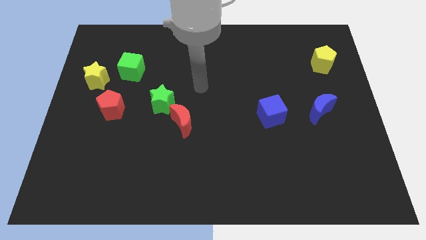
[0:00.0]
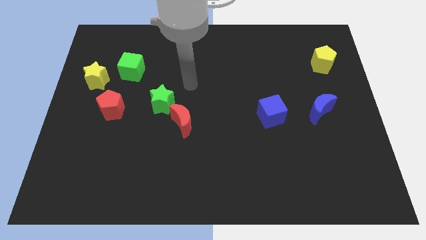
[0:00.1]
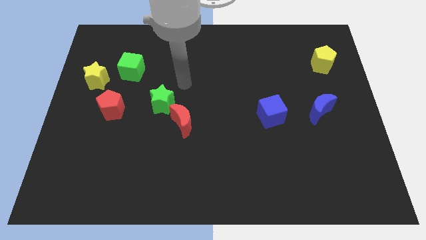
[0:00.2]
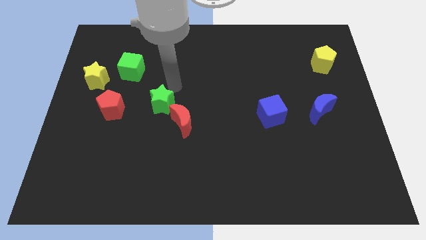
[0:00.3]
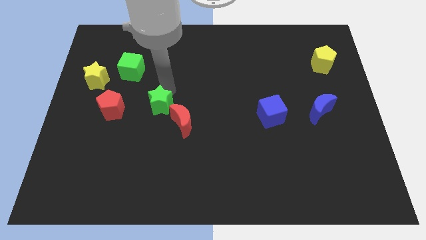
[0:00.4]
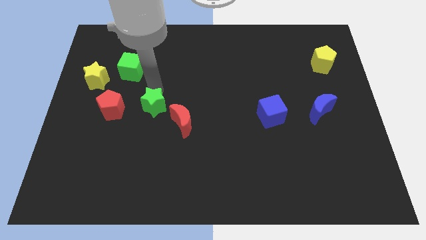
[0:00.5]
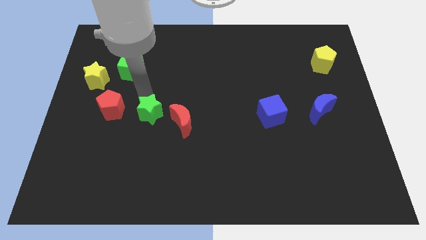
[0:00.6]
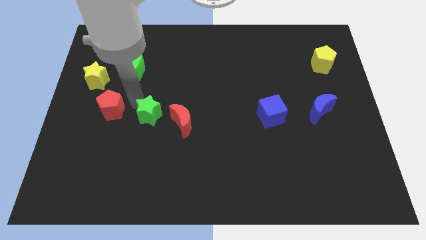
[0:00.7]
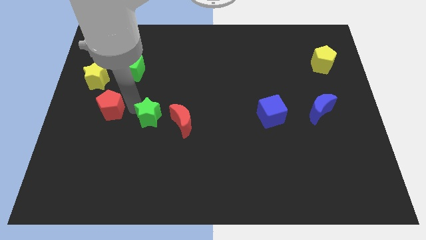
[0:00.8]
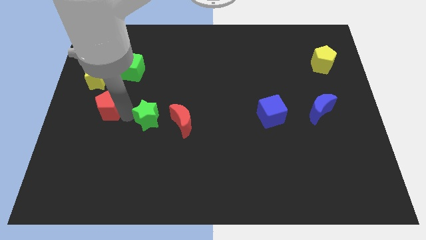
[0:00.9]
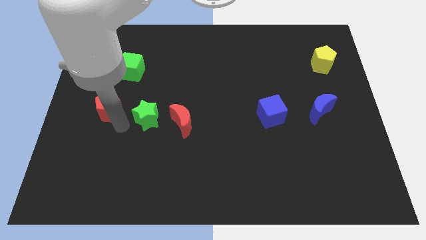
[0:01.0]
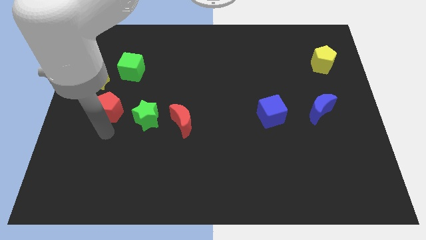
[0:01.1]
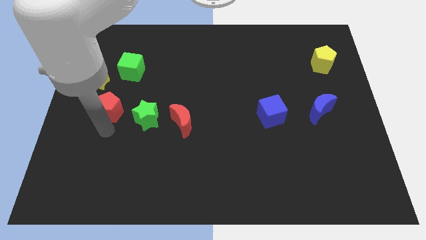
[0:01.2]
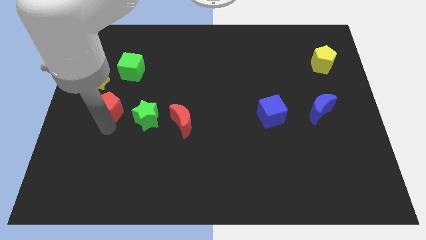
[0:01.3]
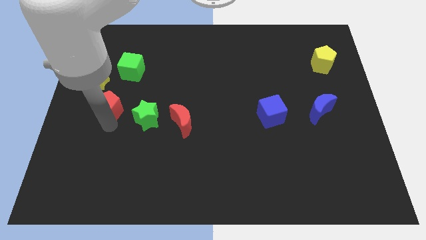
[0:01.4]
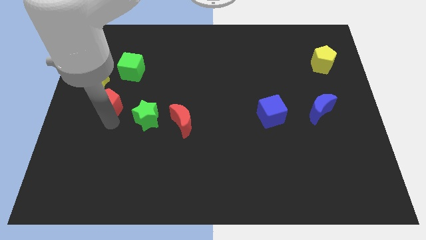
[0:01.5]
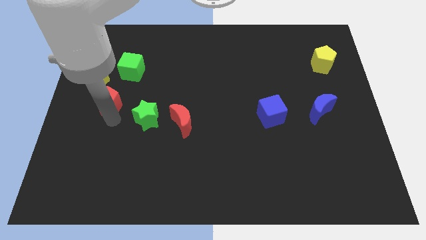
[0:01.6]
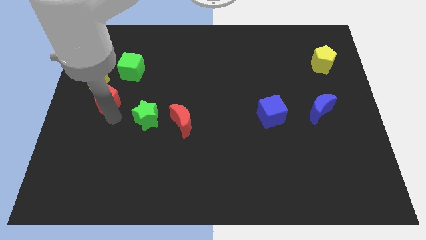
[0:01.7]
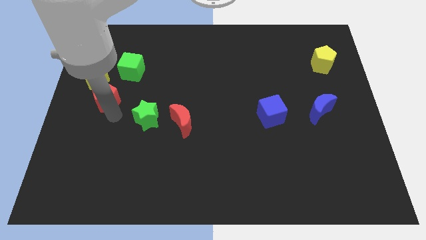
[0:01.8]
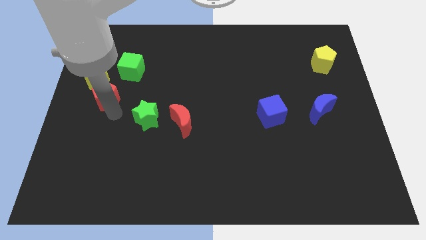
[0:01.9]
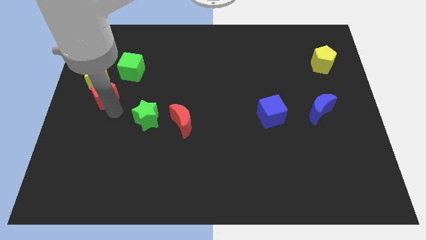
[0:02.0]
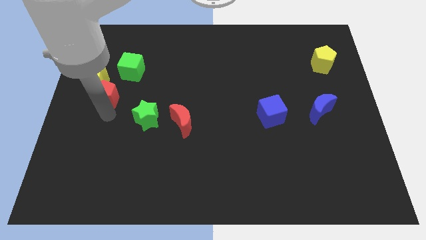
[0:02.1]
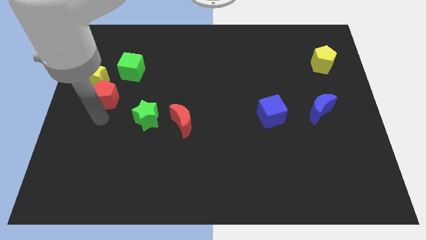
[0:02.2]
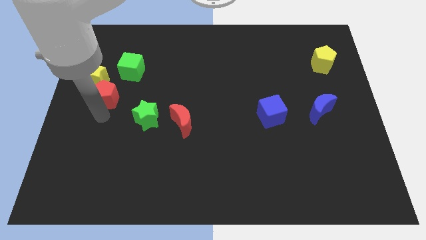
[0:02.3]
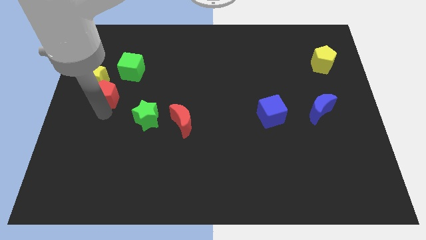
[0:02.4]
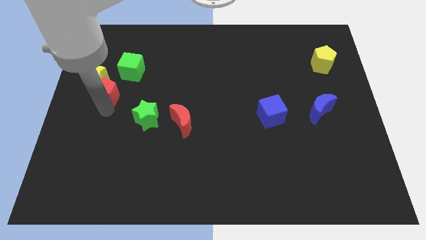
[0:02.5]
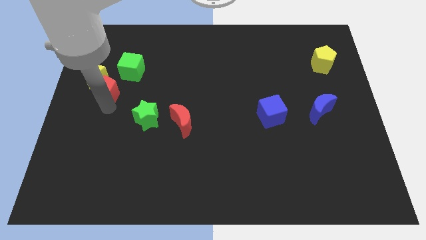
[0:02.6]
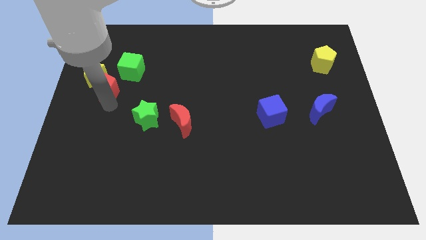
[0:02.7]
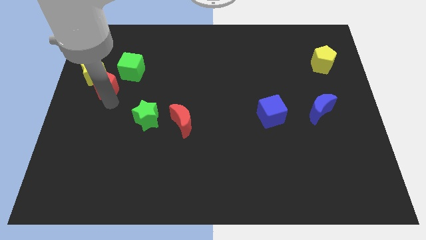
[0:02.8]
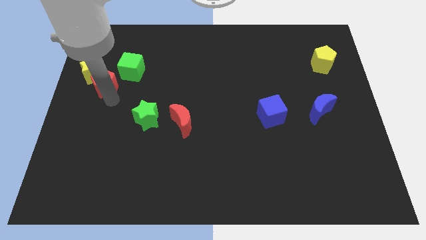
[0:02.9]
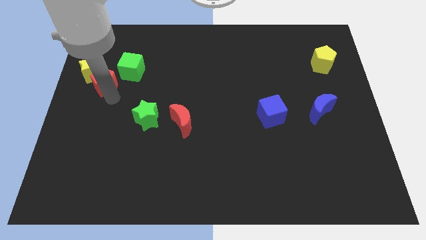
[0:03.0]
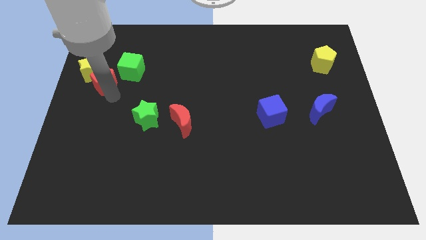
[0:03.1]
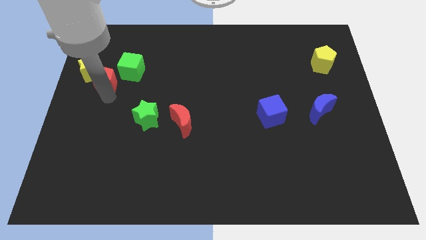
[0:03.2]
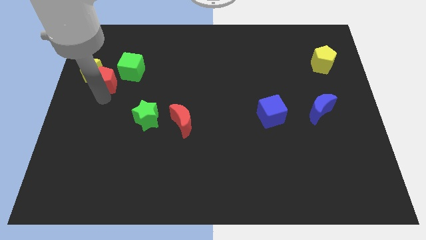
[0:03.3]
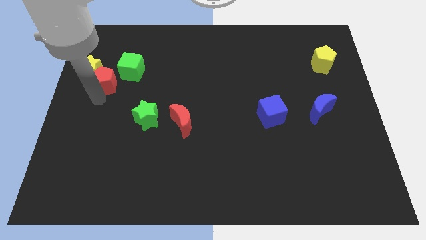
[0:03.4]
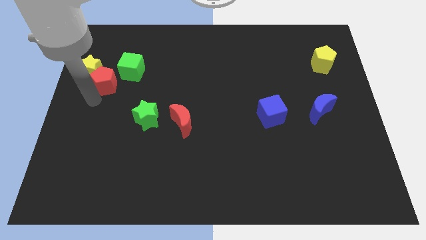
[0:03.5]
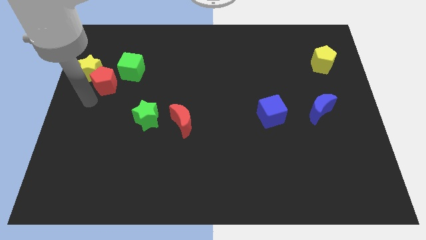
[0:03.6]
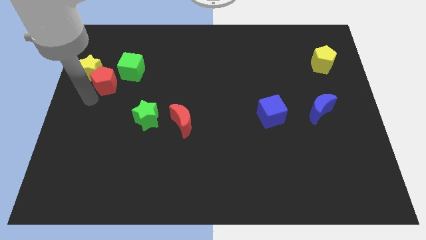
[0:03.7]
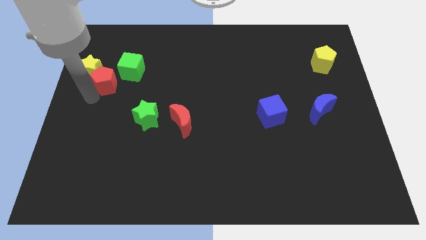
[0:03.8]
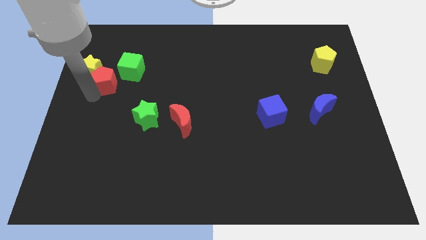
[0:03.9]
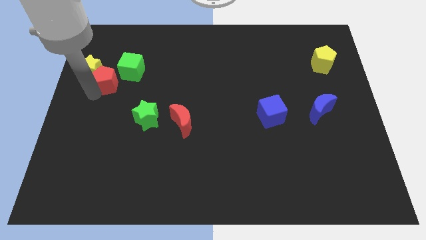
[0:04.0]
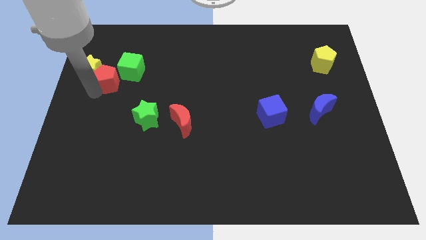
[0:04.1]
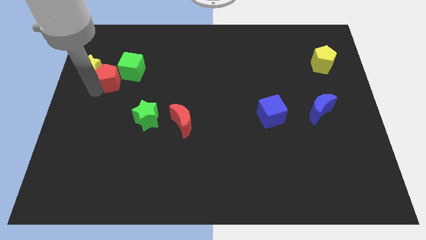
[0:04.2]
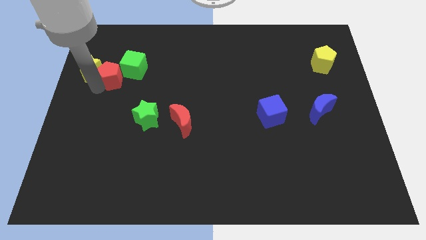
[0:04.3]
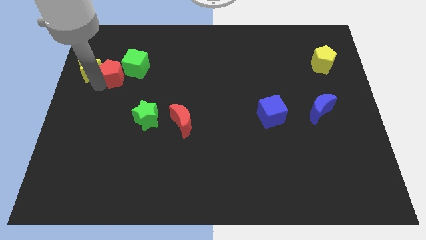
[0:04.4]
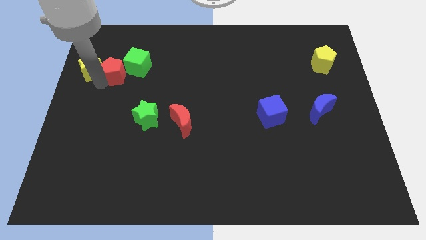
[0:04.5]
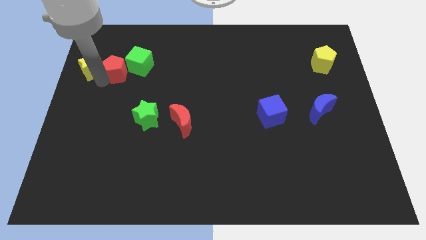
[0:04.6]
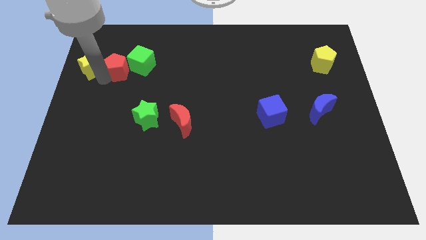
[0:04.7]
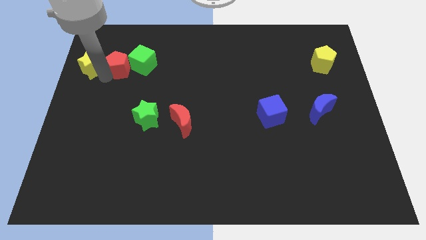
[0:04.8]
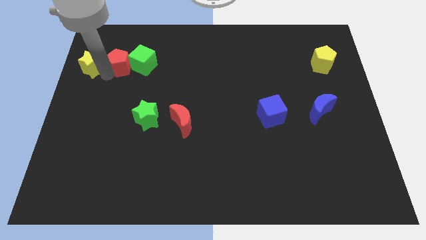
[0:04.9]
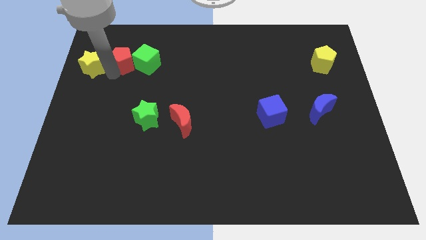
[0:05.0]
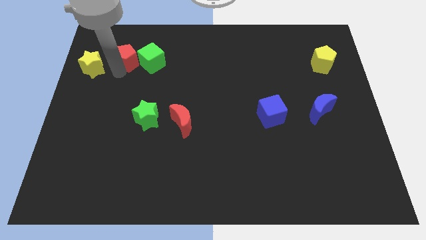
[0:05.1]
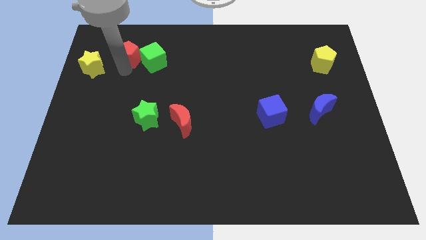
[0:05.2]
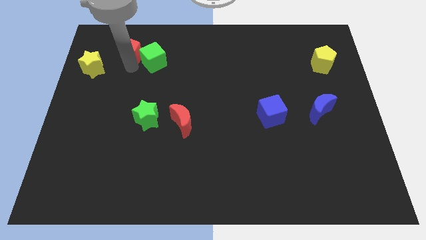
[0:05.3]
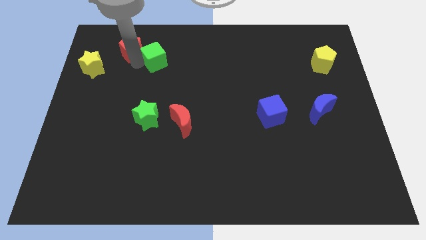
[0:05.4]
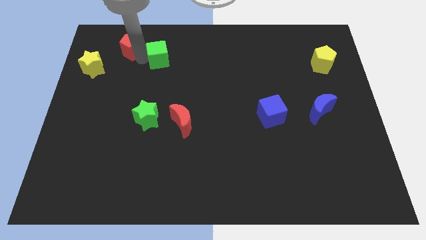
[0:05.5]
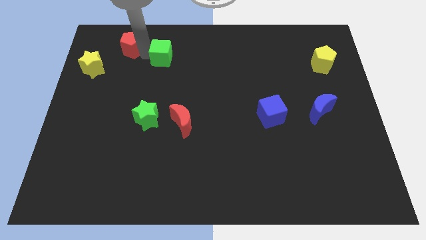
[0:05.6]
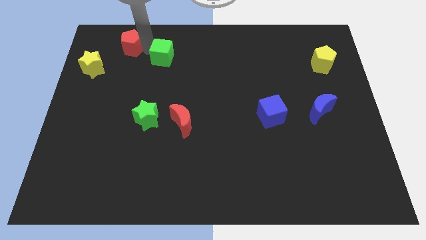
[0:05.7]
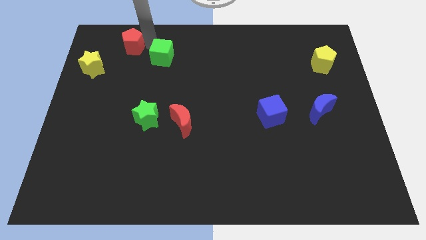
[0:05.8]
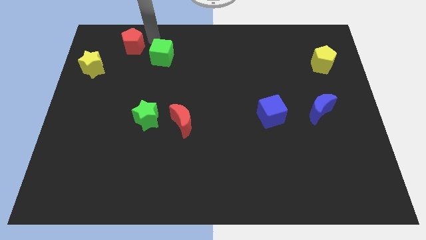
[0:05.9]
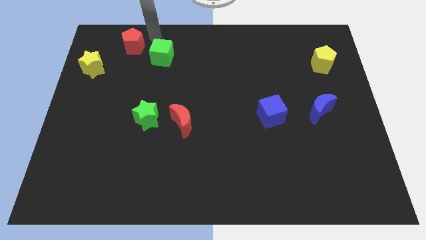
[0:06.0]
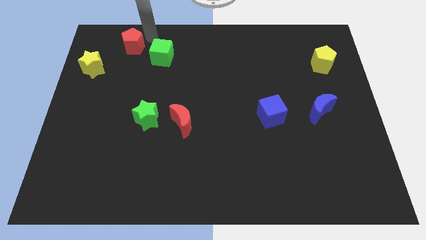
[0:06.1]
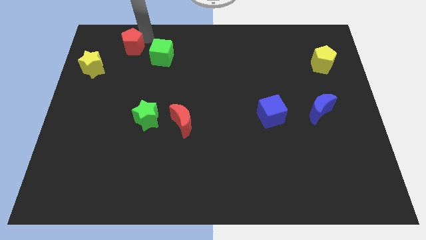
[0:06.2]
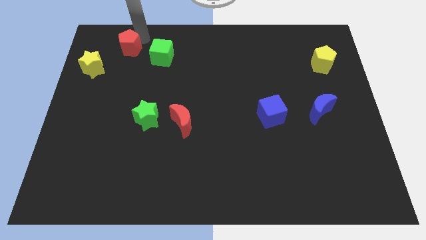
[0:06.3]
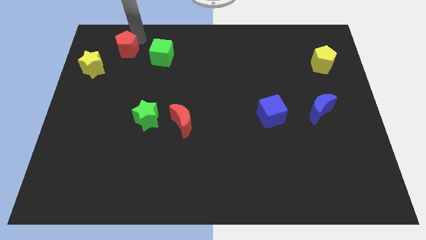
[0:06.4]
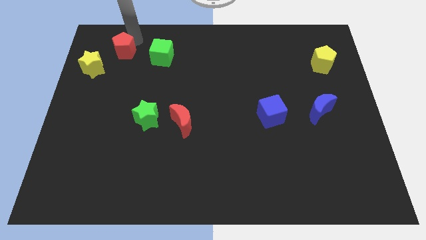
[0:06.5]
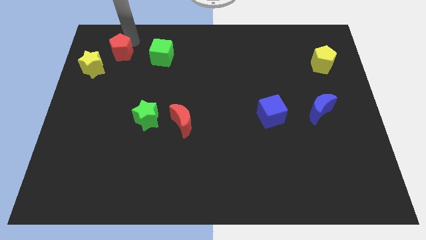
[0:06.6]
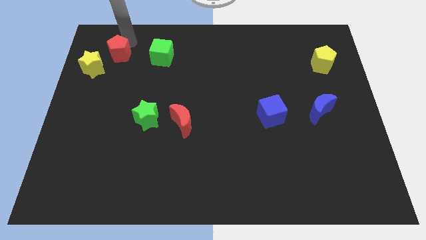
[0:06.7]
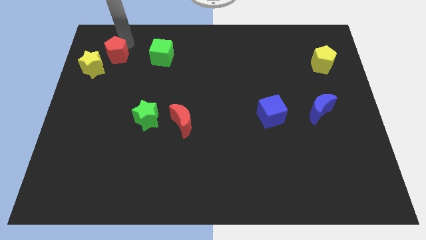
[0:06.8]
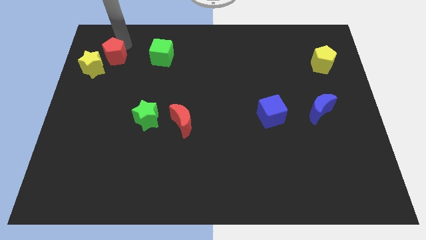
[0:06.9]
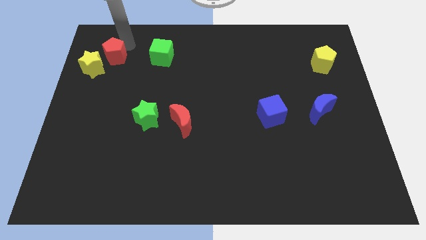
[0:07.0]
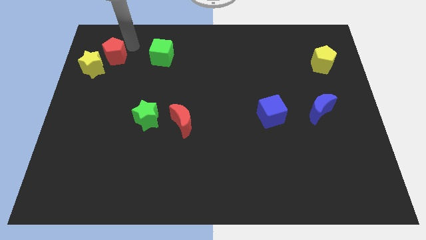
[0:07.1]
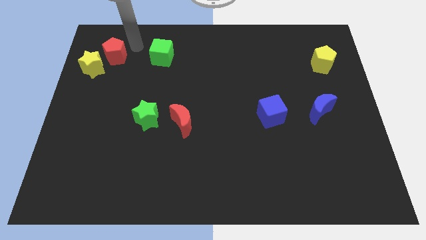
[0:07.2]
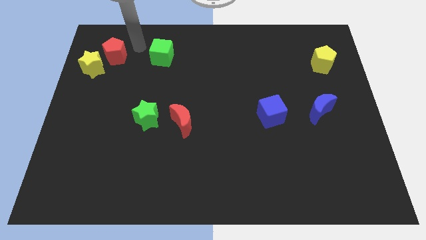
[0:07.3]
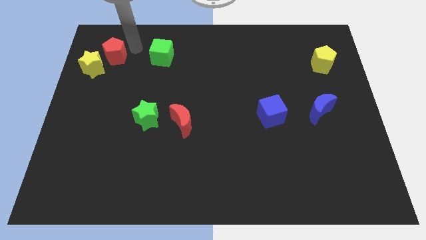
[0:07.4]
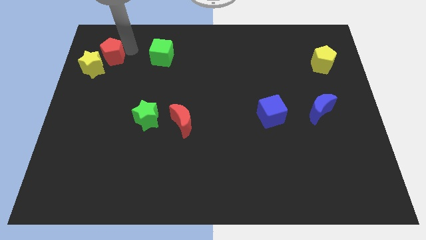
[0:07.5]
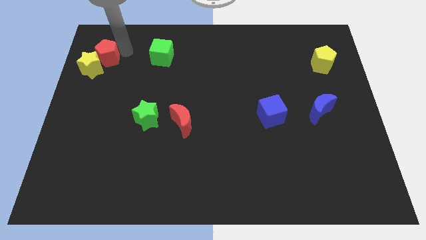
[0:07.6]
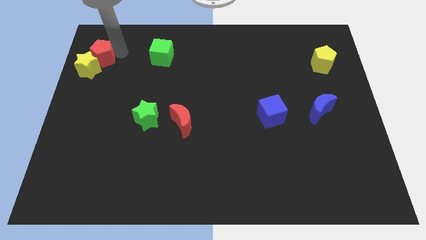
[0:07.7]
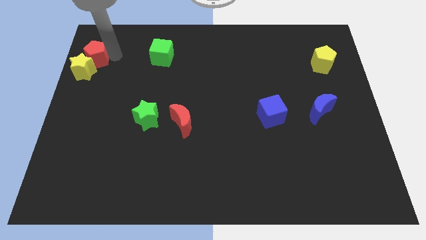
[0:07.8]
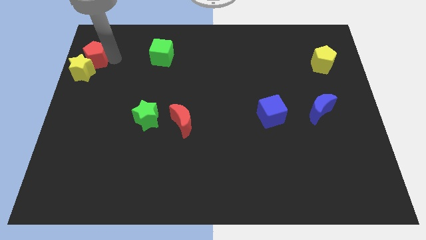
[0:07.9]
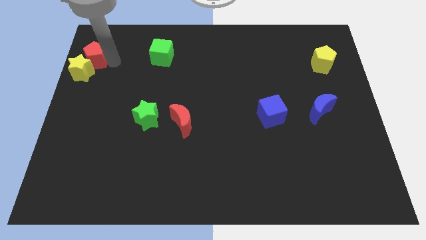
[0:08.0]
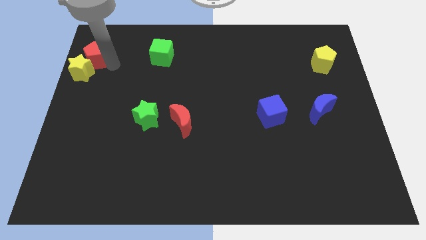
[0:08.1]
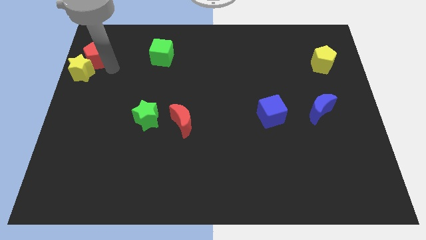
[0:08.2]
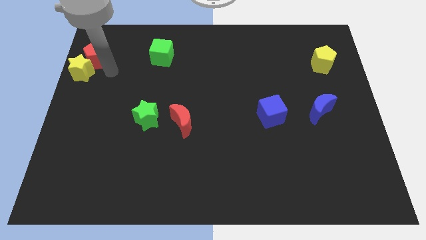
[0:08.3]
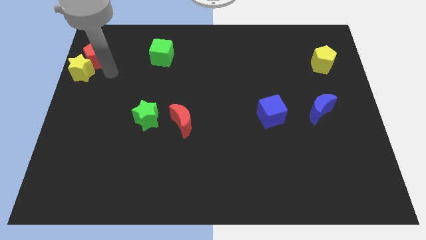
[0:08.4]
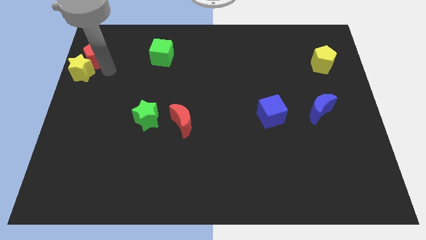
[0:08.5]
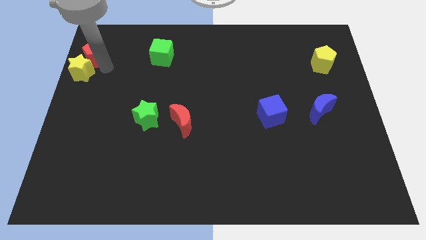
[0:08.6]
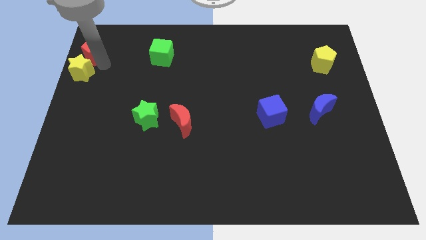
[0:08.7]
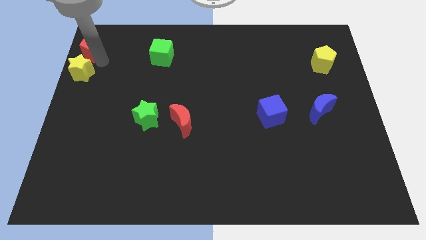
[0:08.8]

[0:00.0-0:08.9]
move the red pentagon to the top left
